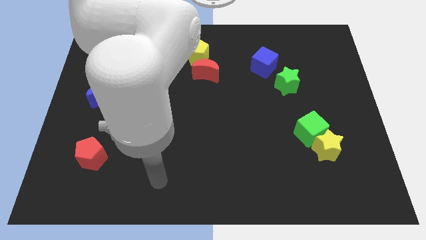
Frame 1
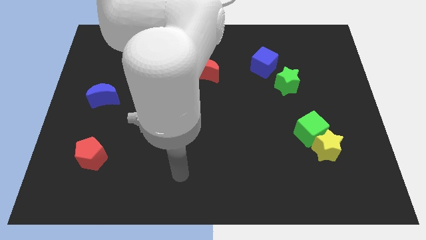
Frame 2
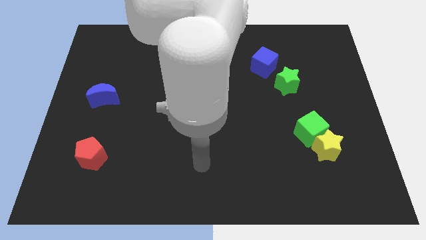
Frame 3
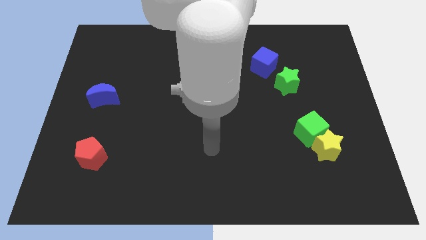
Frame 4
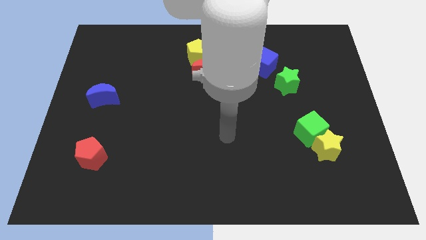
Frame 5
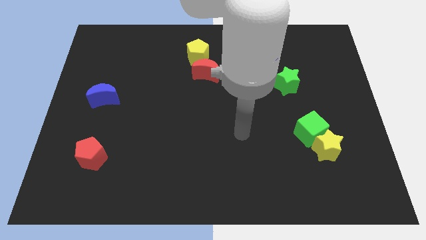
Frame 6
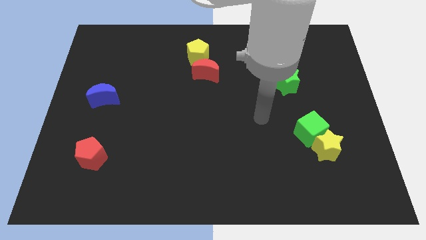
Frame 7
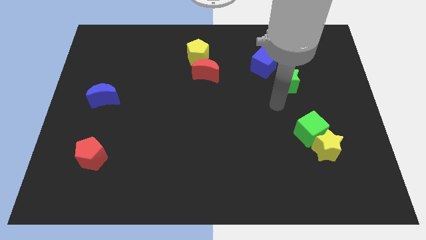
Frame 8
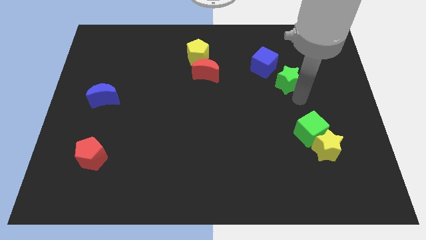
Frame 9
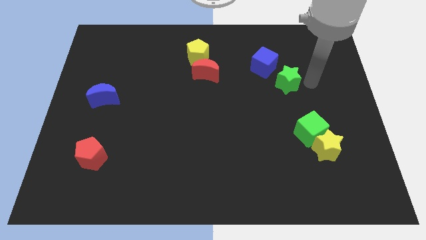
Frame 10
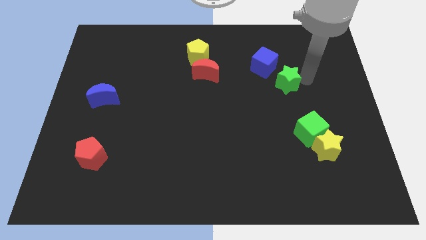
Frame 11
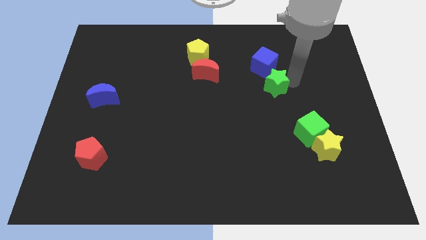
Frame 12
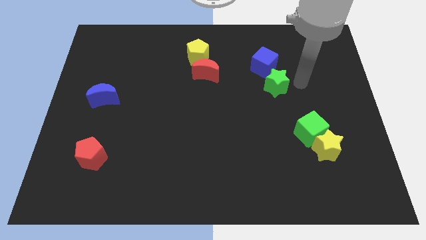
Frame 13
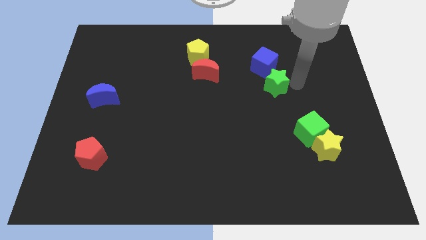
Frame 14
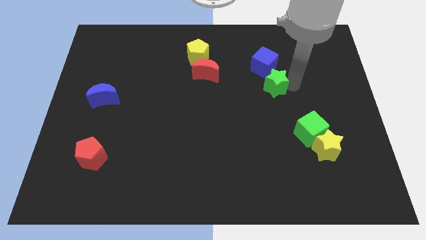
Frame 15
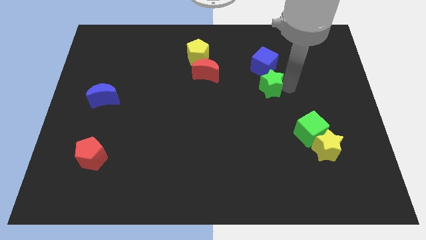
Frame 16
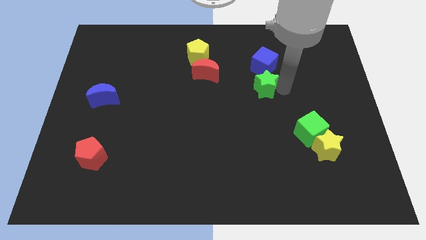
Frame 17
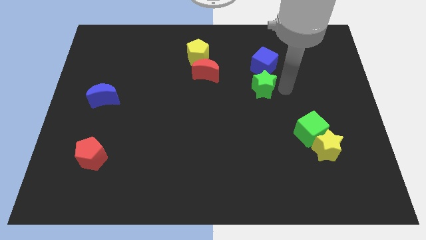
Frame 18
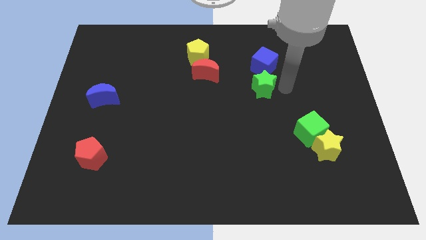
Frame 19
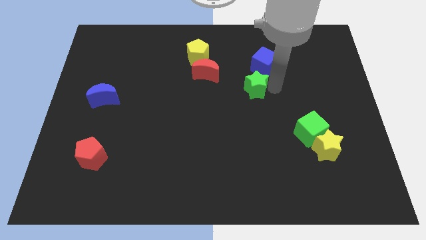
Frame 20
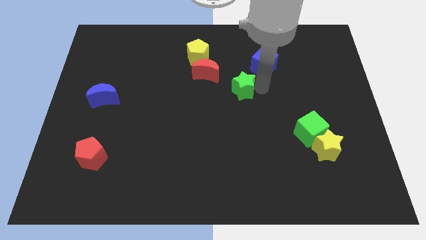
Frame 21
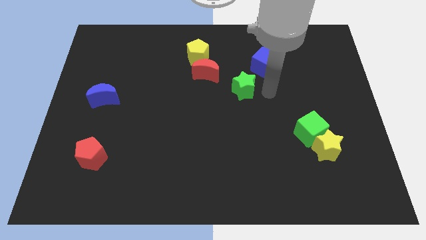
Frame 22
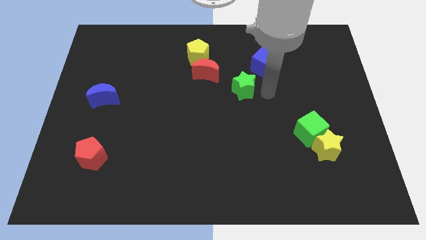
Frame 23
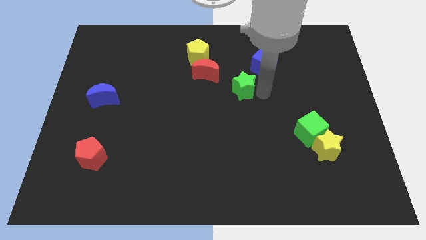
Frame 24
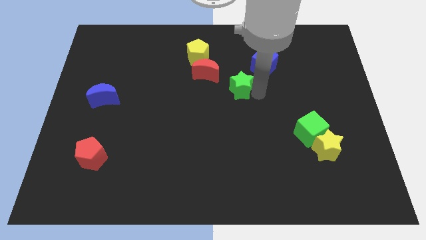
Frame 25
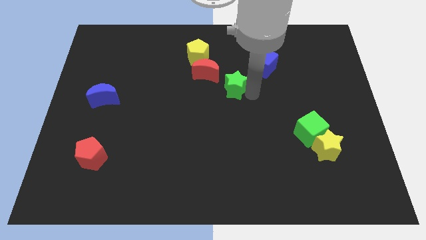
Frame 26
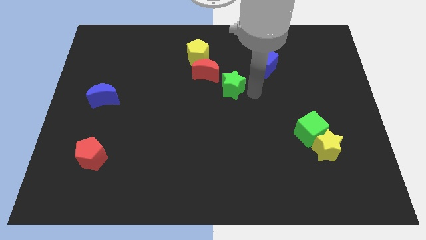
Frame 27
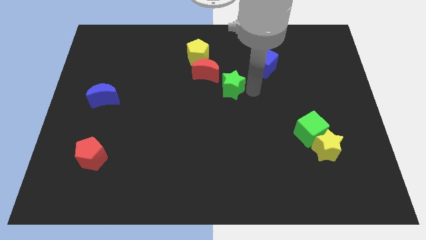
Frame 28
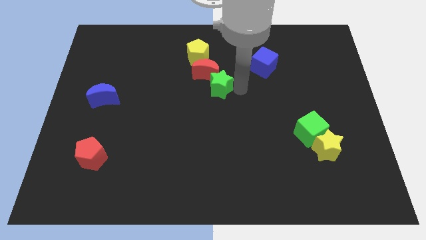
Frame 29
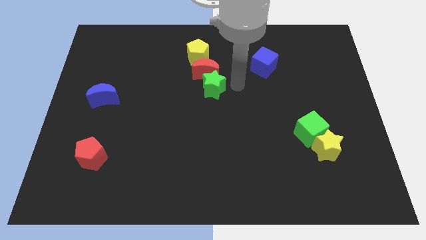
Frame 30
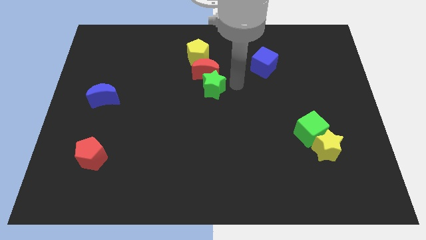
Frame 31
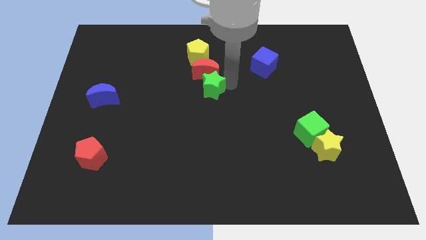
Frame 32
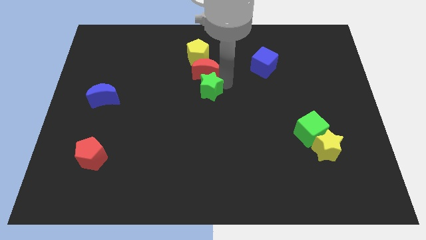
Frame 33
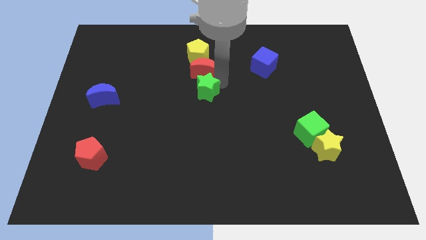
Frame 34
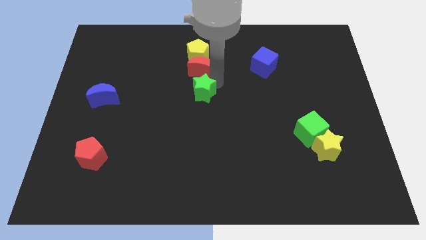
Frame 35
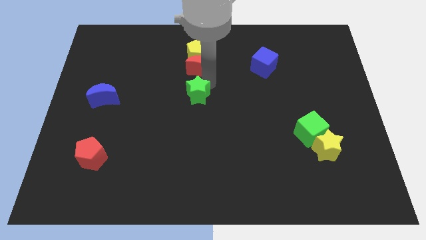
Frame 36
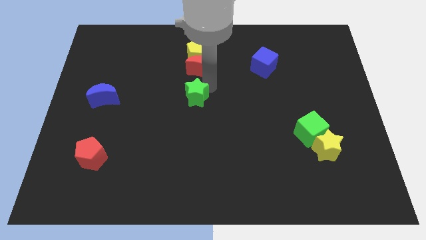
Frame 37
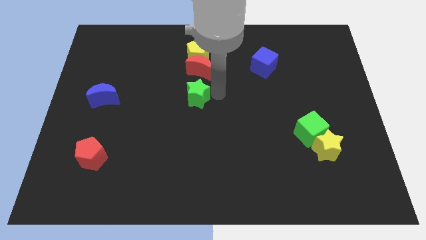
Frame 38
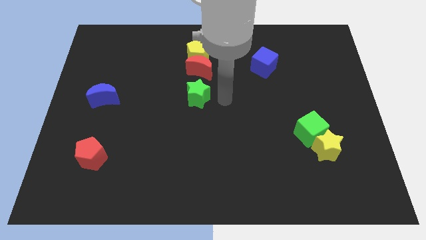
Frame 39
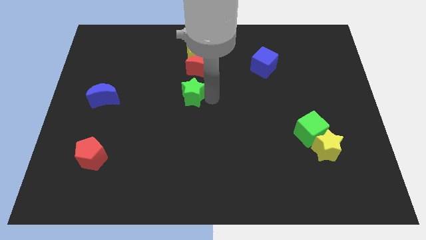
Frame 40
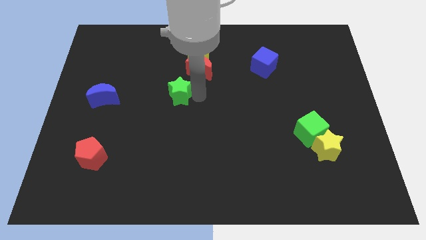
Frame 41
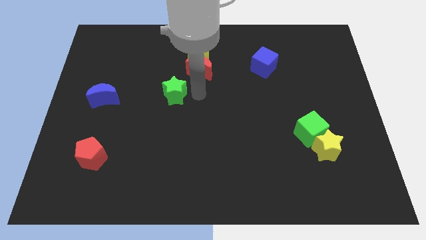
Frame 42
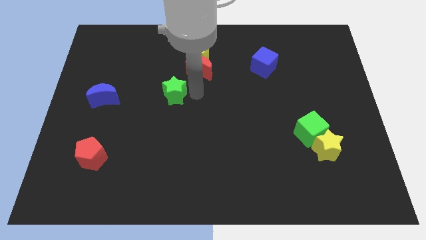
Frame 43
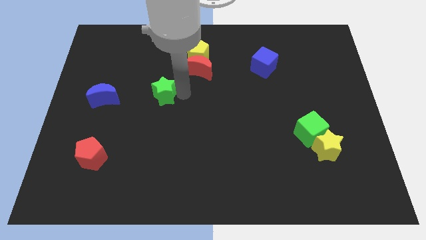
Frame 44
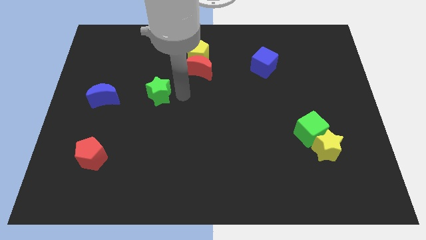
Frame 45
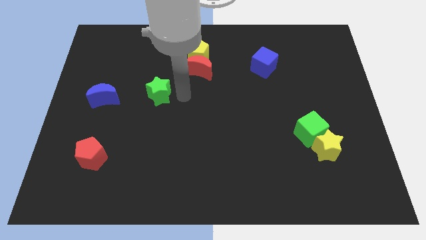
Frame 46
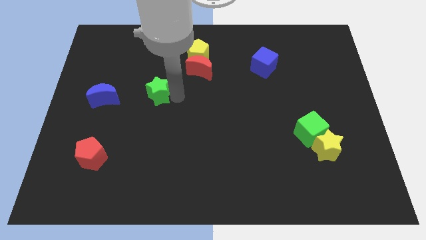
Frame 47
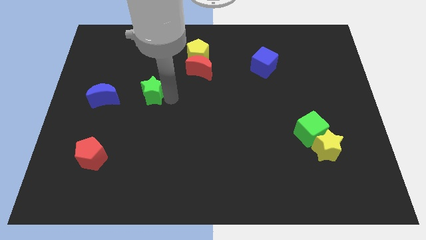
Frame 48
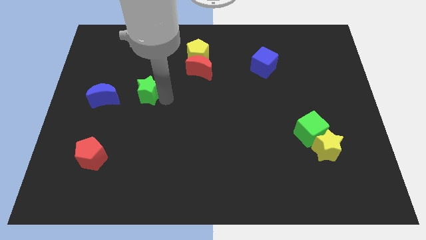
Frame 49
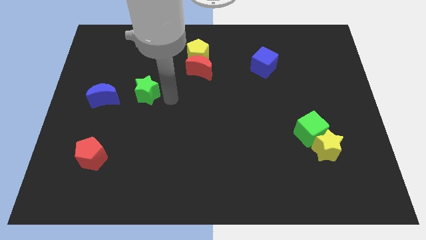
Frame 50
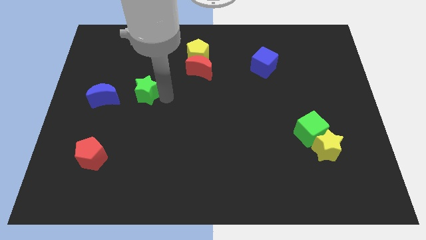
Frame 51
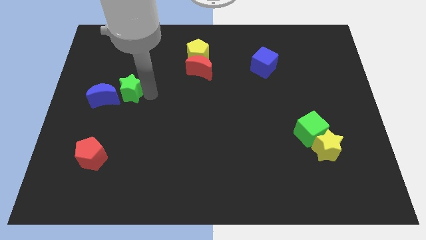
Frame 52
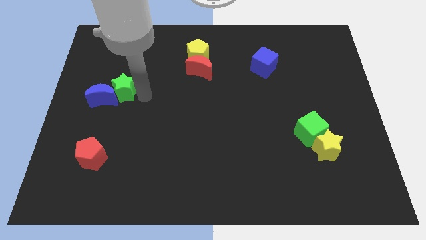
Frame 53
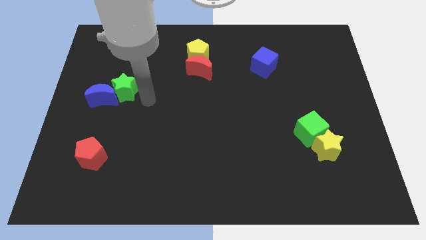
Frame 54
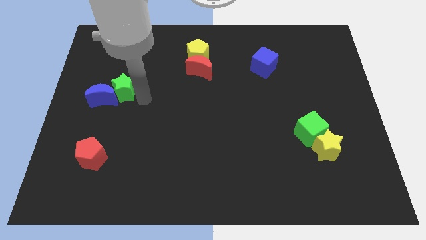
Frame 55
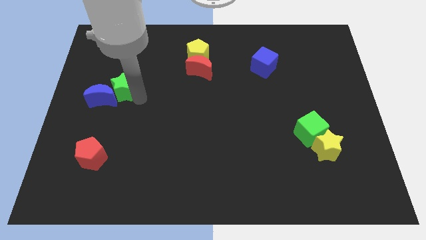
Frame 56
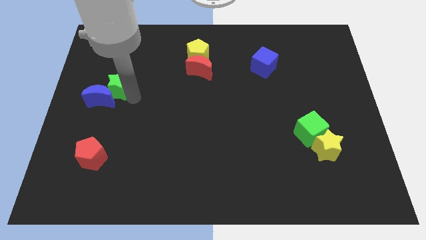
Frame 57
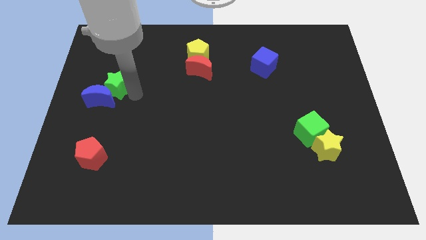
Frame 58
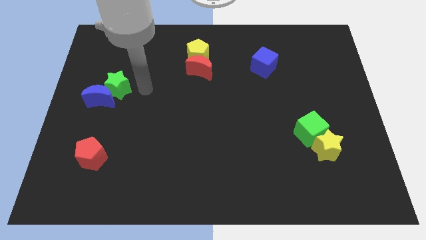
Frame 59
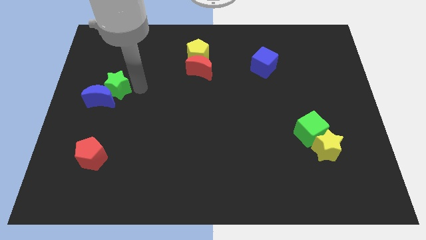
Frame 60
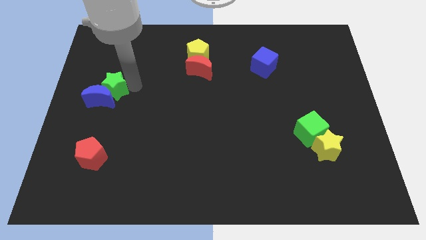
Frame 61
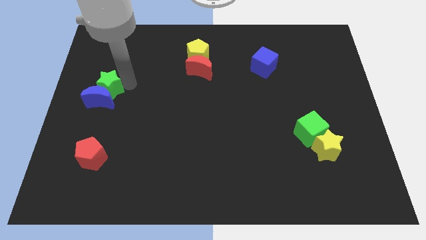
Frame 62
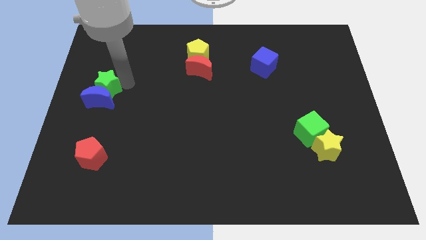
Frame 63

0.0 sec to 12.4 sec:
push the green star to the left side of the board
